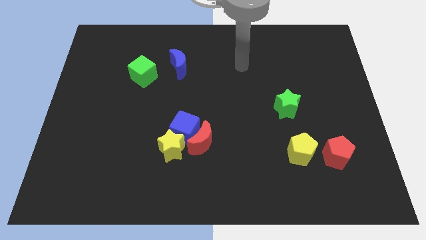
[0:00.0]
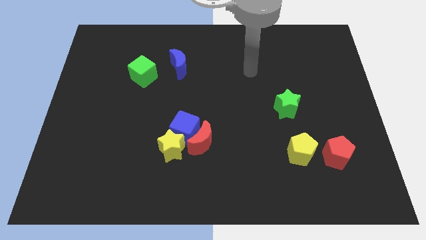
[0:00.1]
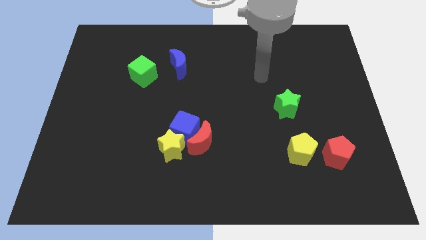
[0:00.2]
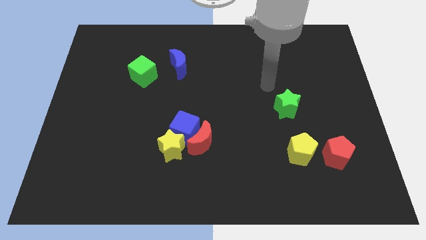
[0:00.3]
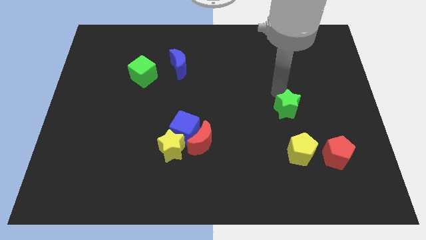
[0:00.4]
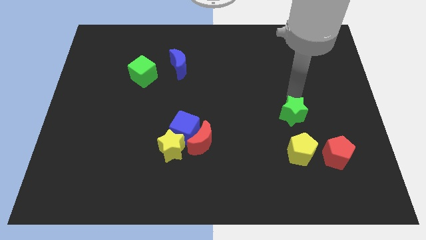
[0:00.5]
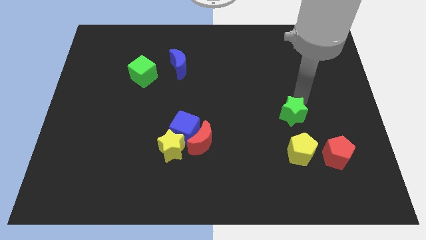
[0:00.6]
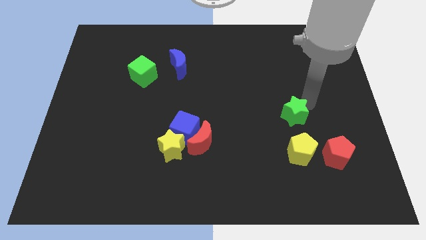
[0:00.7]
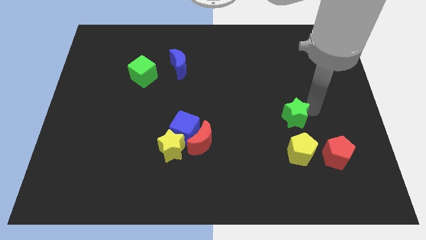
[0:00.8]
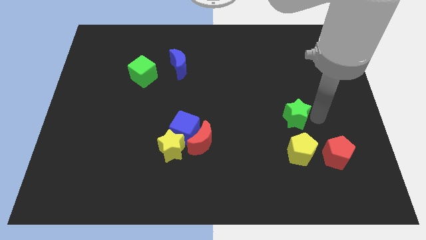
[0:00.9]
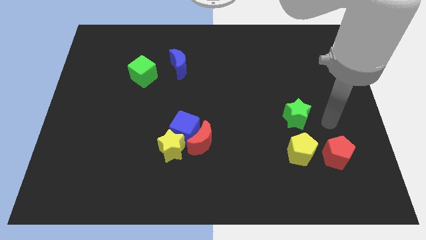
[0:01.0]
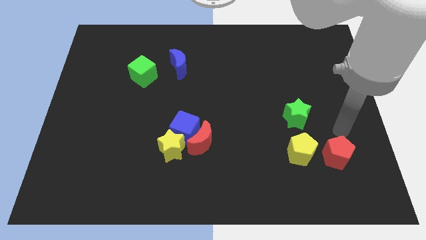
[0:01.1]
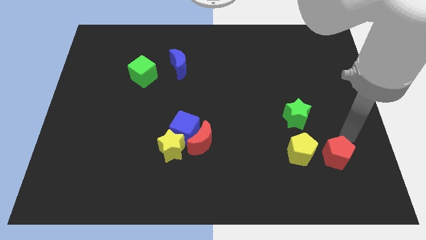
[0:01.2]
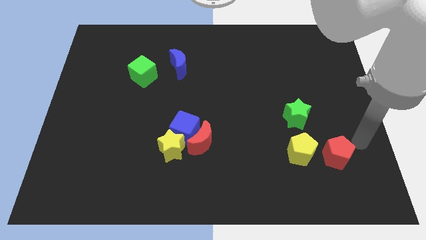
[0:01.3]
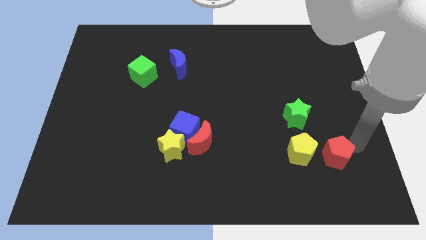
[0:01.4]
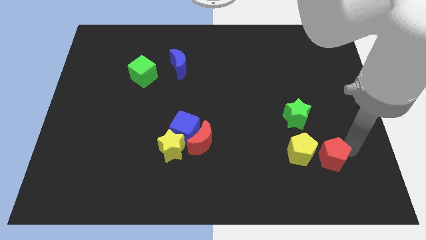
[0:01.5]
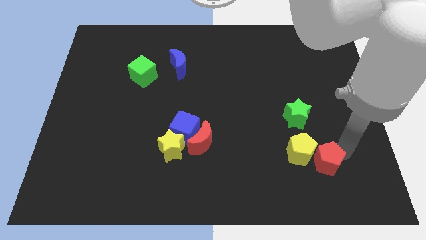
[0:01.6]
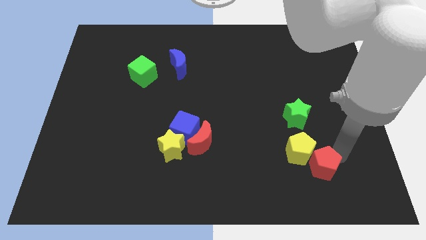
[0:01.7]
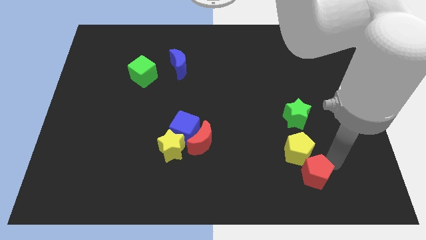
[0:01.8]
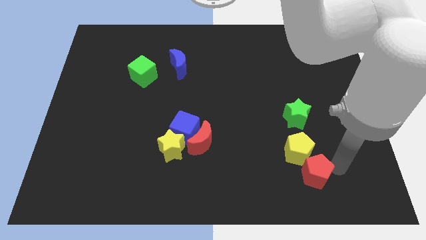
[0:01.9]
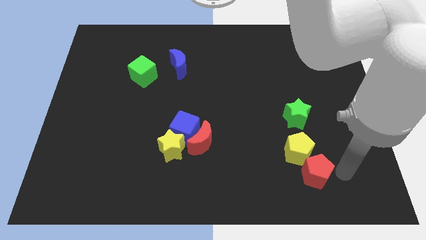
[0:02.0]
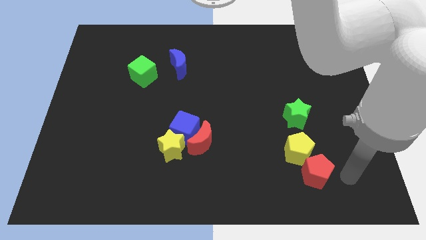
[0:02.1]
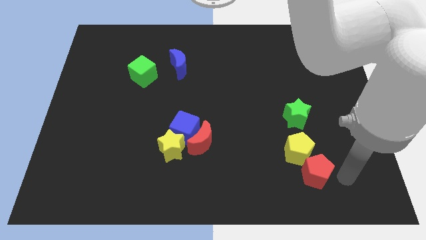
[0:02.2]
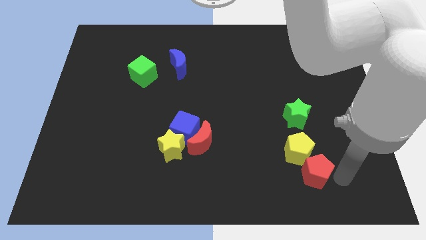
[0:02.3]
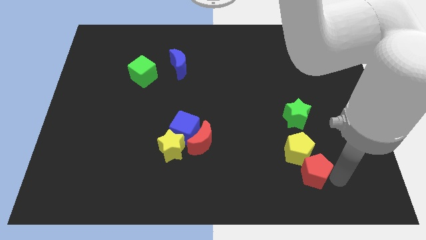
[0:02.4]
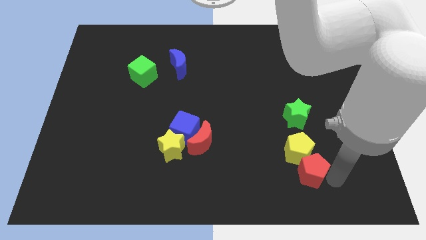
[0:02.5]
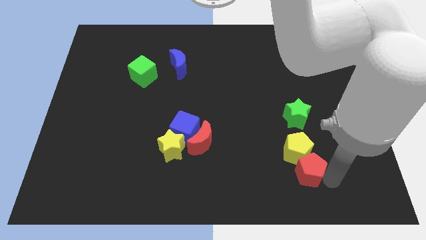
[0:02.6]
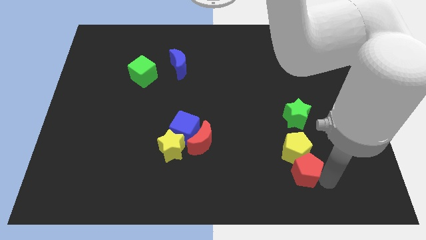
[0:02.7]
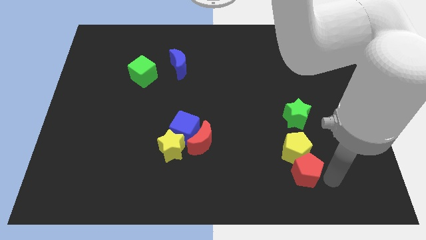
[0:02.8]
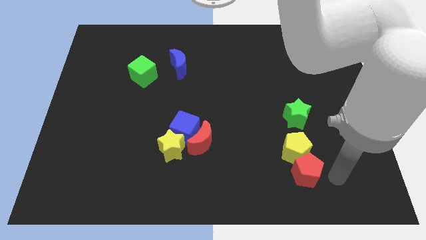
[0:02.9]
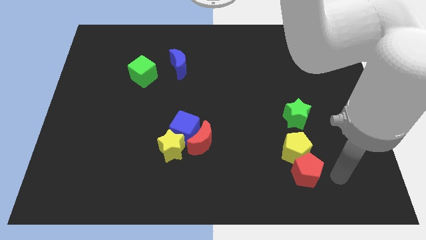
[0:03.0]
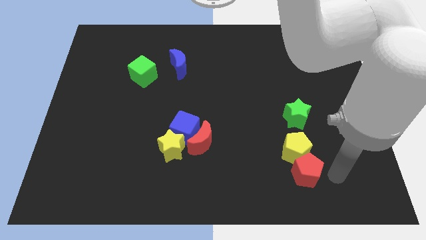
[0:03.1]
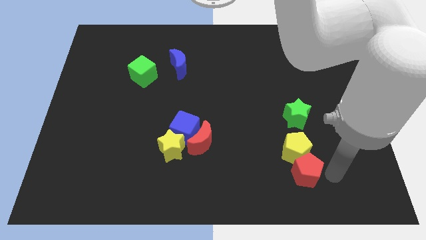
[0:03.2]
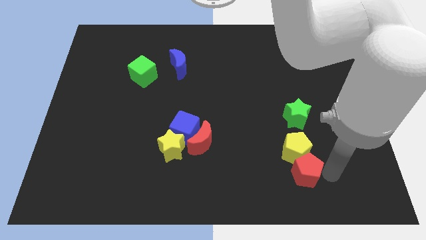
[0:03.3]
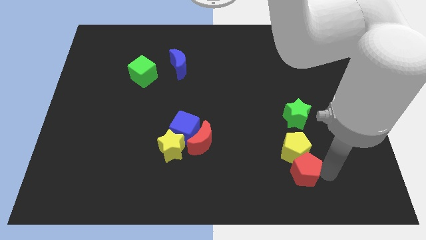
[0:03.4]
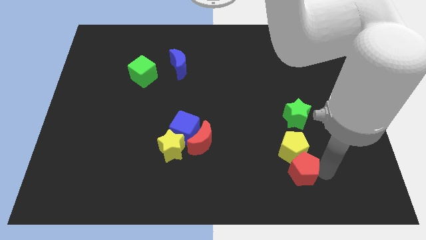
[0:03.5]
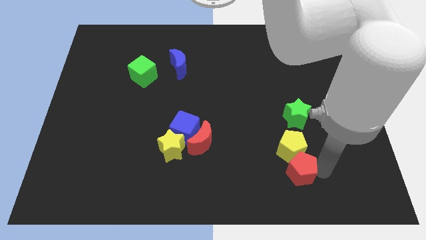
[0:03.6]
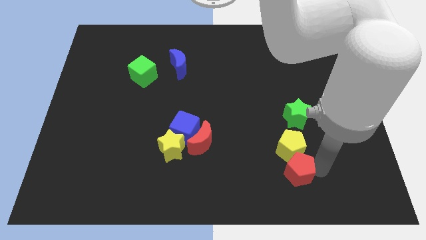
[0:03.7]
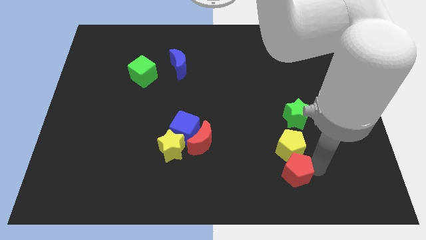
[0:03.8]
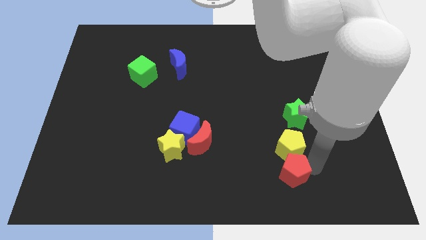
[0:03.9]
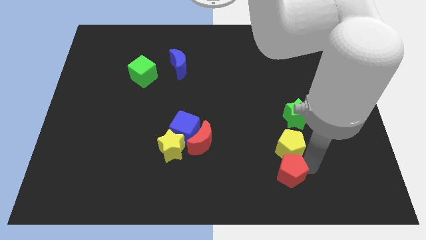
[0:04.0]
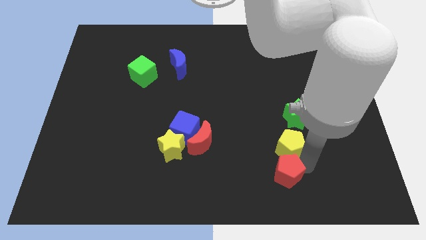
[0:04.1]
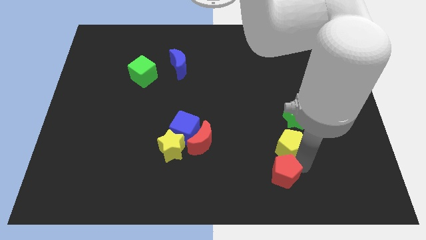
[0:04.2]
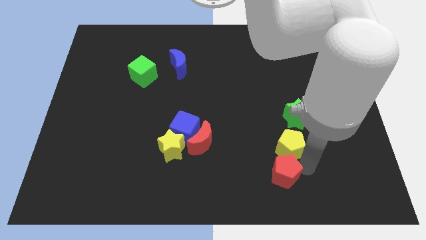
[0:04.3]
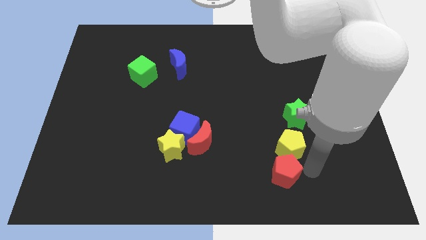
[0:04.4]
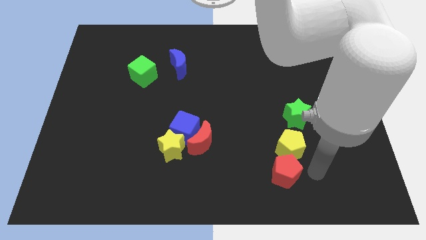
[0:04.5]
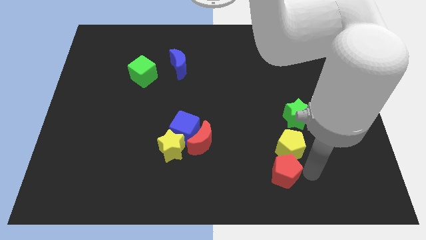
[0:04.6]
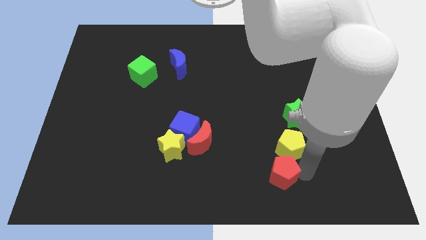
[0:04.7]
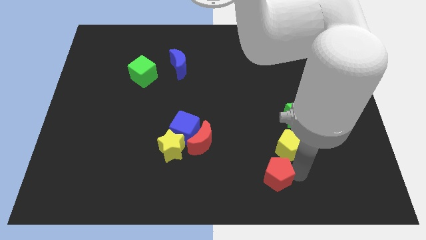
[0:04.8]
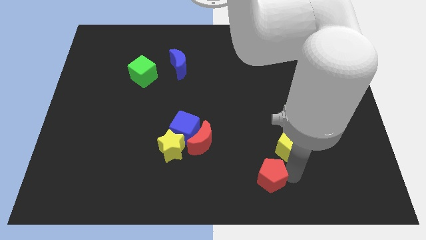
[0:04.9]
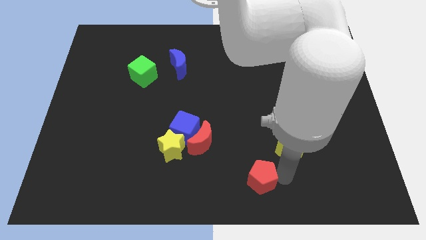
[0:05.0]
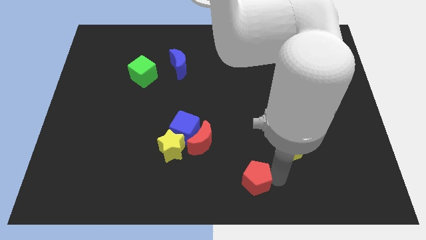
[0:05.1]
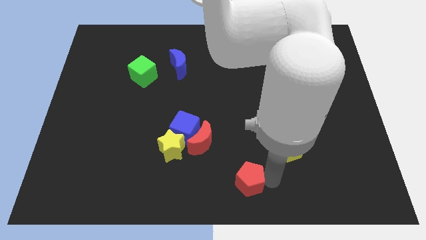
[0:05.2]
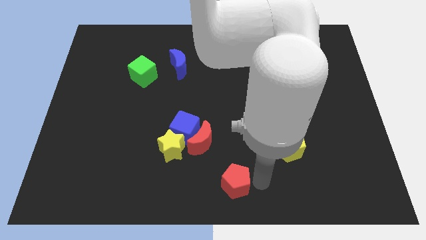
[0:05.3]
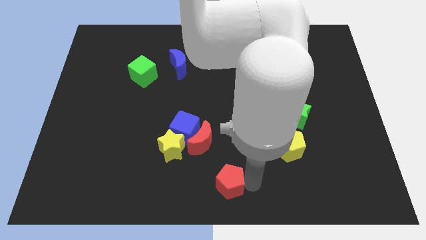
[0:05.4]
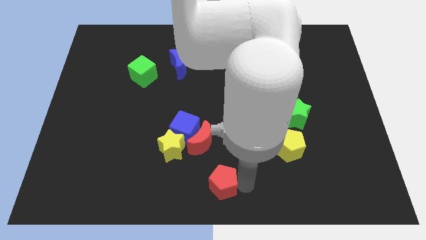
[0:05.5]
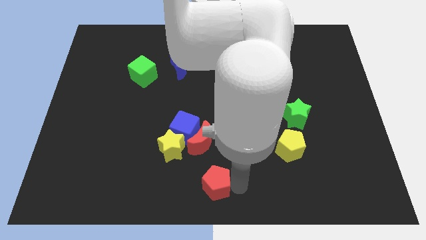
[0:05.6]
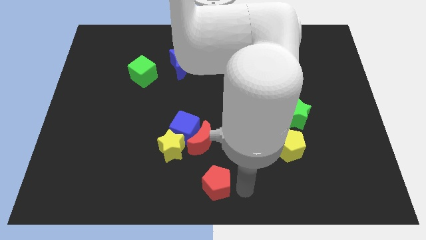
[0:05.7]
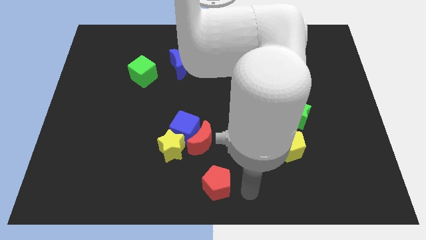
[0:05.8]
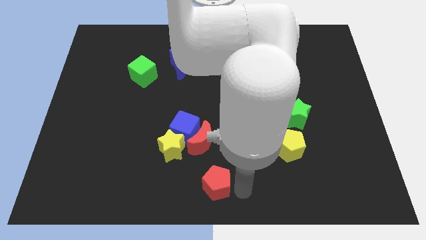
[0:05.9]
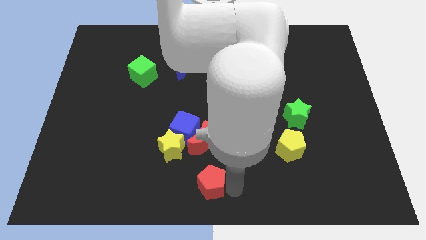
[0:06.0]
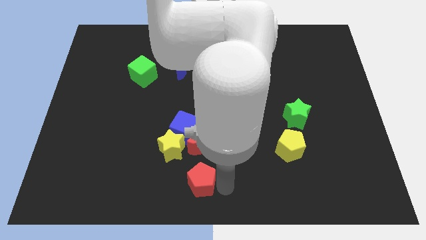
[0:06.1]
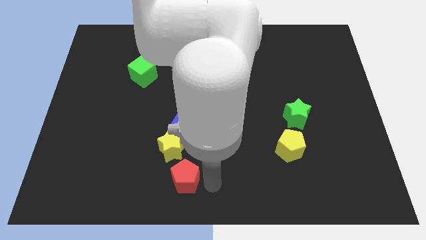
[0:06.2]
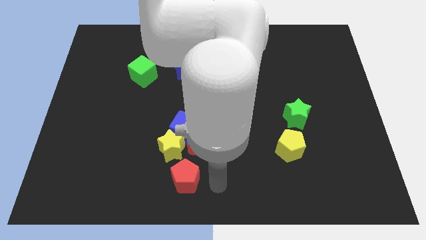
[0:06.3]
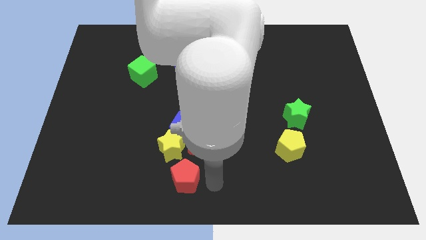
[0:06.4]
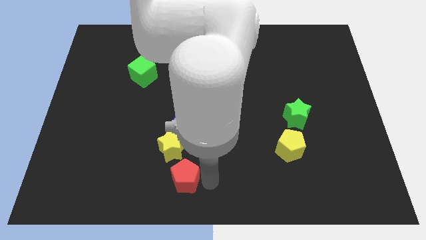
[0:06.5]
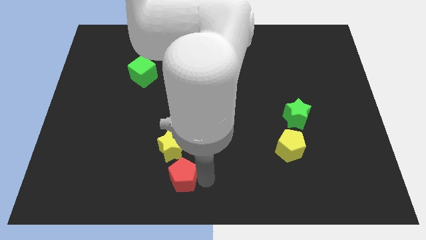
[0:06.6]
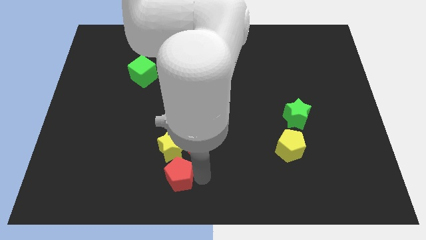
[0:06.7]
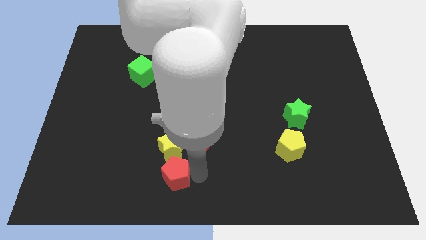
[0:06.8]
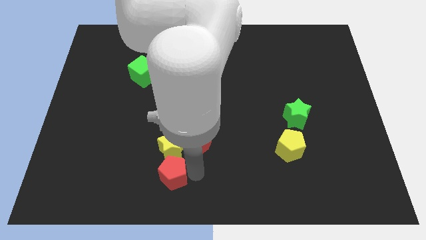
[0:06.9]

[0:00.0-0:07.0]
push the red pentagon diagonally down and to the left of the yellow star

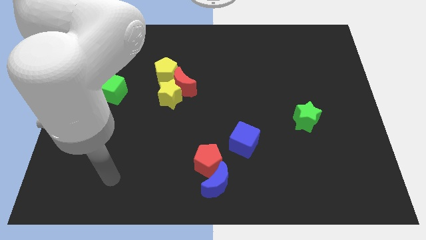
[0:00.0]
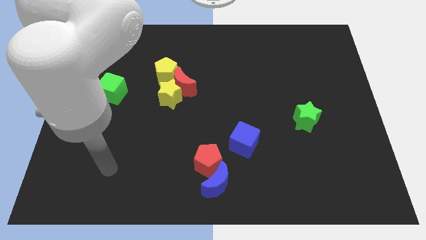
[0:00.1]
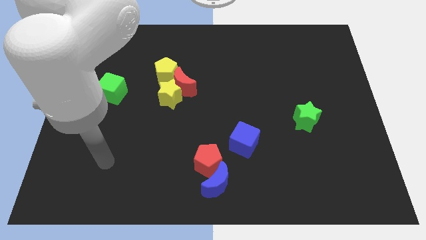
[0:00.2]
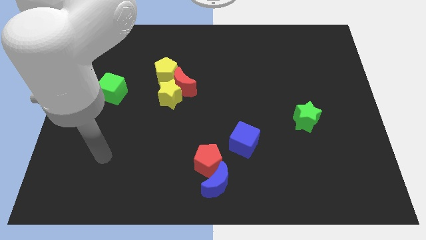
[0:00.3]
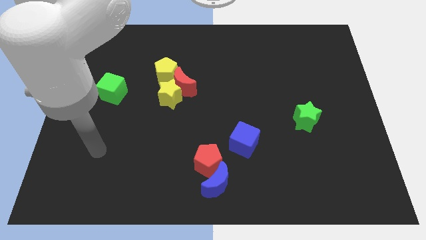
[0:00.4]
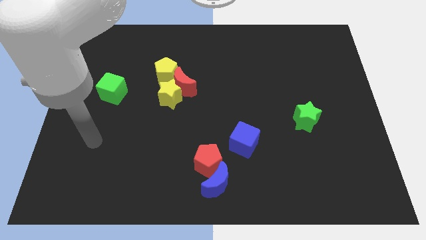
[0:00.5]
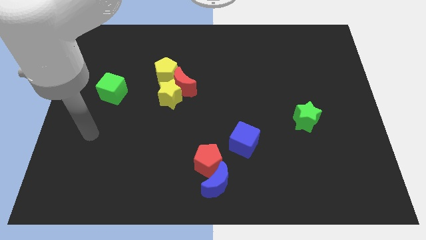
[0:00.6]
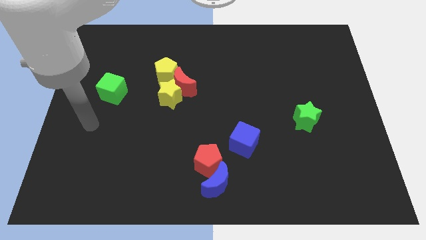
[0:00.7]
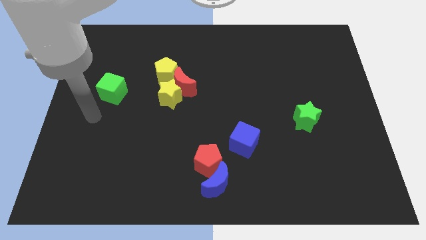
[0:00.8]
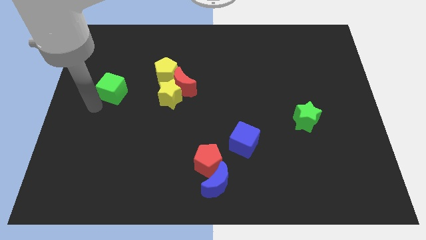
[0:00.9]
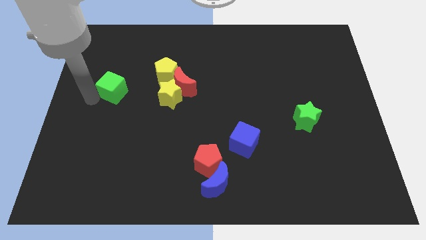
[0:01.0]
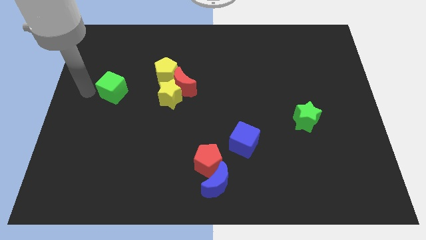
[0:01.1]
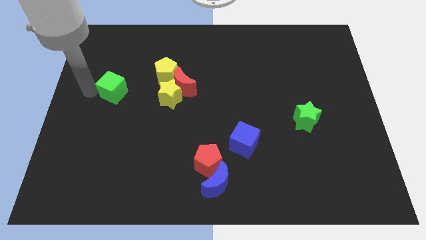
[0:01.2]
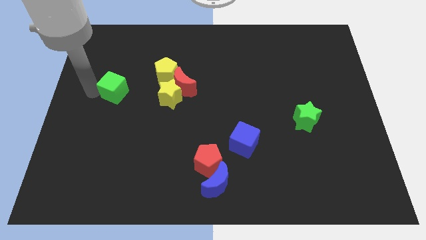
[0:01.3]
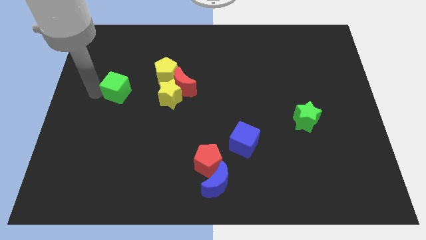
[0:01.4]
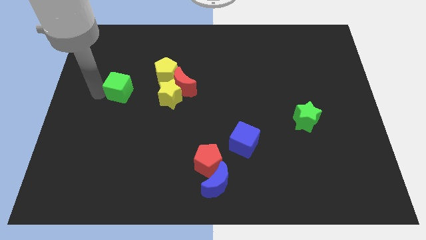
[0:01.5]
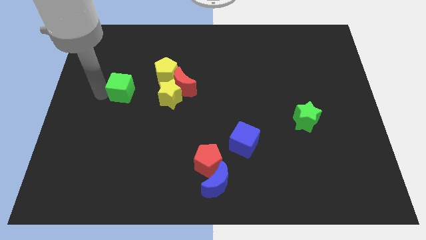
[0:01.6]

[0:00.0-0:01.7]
push the green cube to the bottom left side of the yellow pentagon
